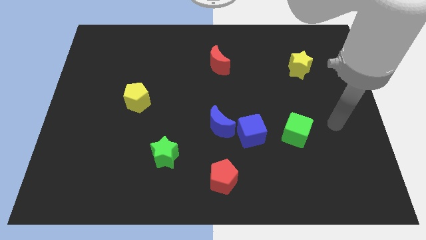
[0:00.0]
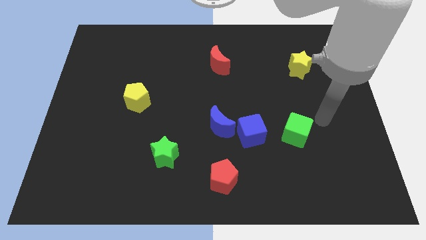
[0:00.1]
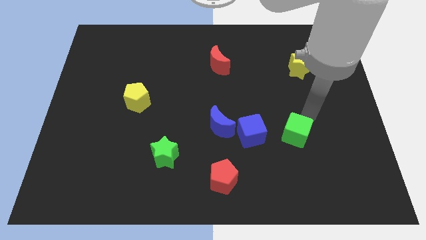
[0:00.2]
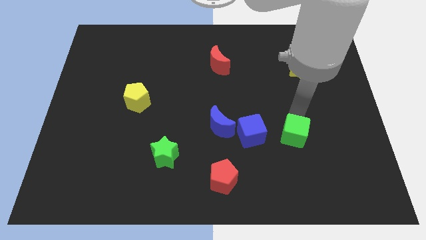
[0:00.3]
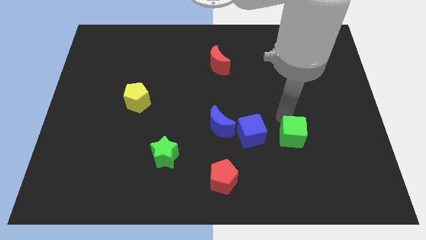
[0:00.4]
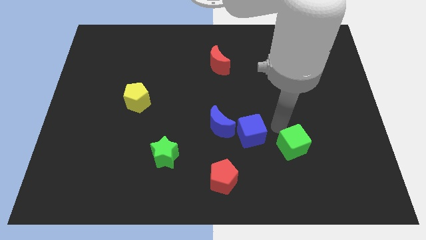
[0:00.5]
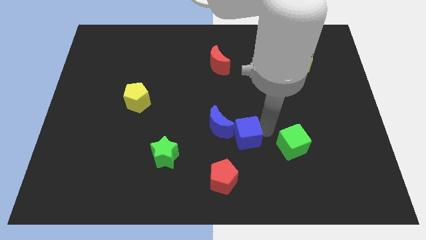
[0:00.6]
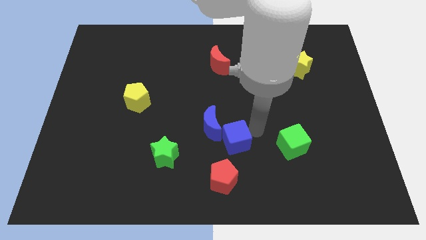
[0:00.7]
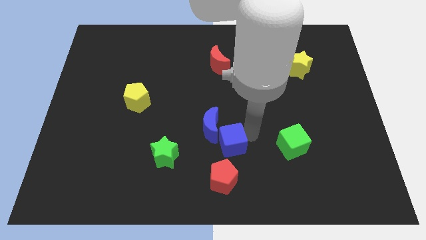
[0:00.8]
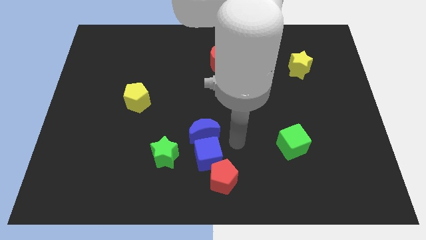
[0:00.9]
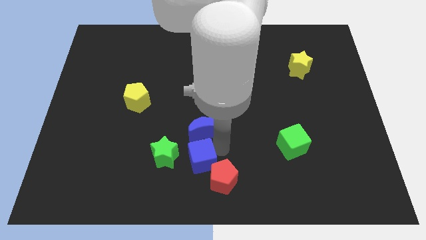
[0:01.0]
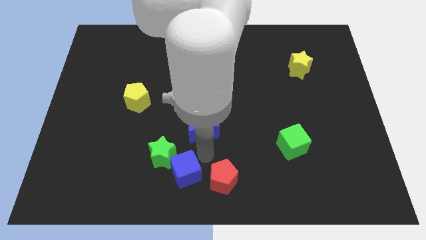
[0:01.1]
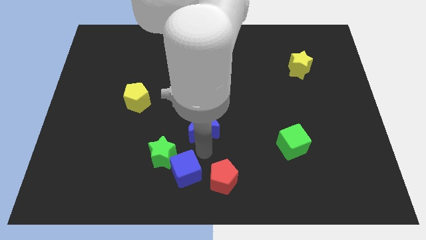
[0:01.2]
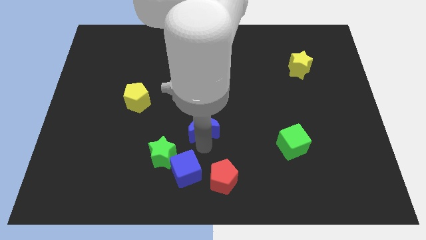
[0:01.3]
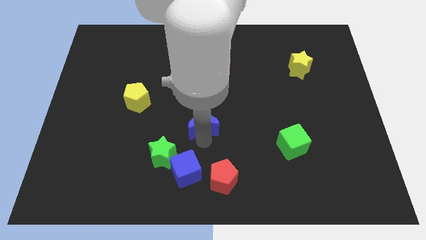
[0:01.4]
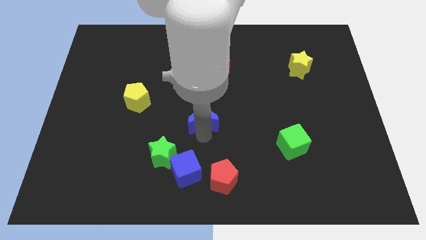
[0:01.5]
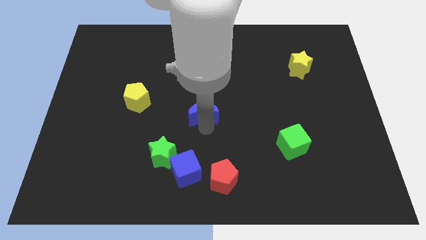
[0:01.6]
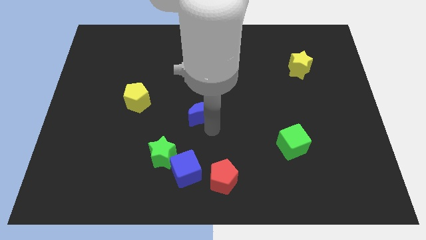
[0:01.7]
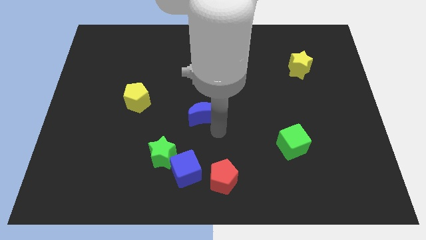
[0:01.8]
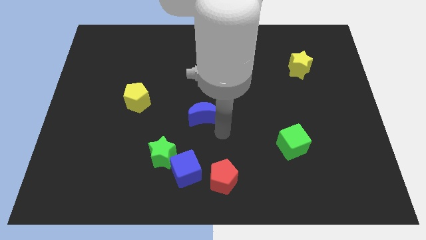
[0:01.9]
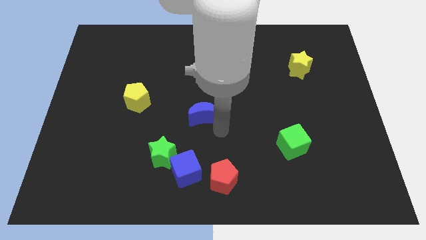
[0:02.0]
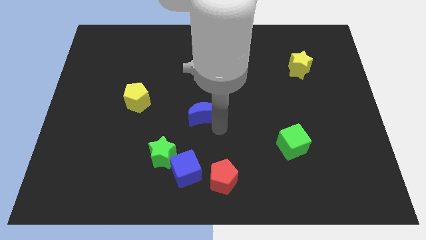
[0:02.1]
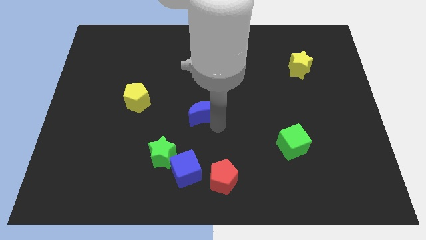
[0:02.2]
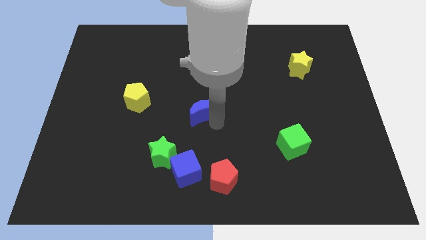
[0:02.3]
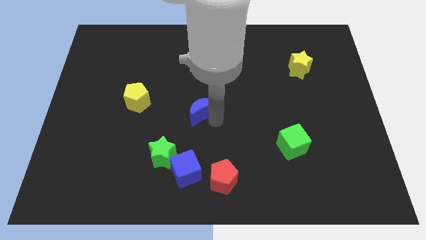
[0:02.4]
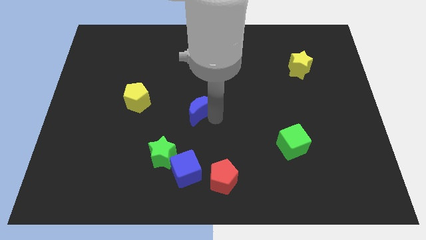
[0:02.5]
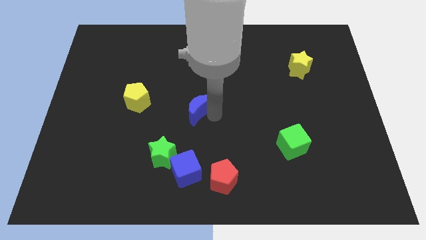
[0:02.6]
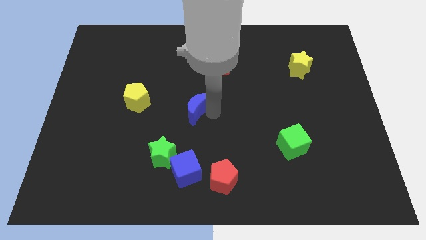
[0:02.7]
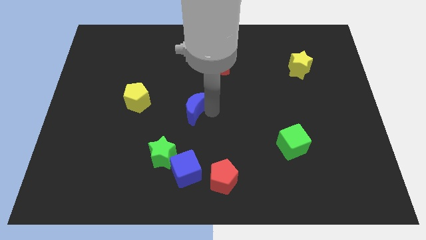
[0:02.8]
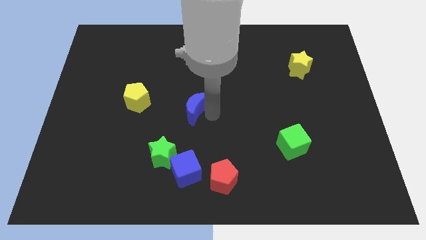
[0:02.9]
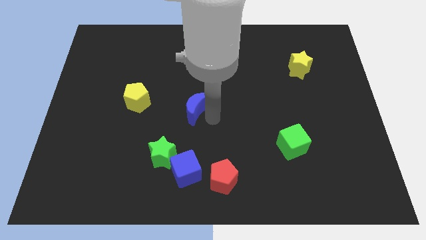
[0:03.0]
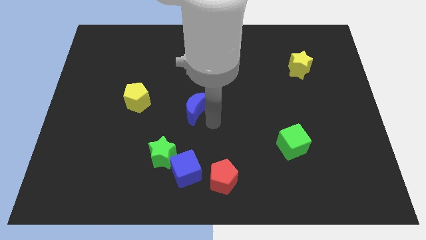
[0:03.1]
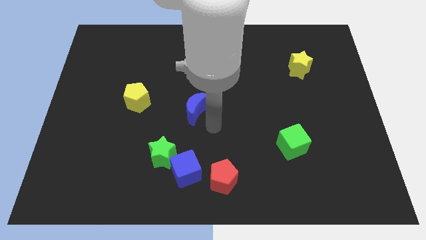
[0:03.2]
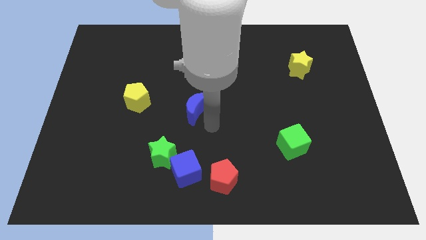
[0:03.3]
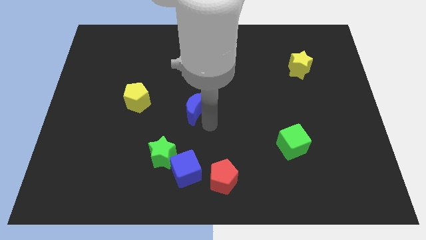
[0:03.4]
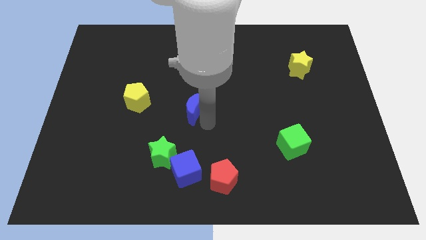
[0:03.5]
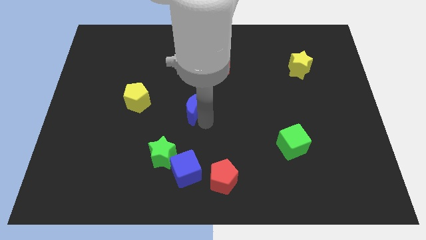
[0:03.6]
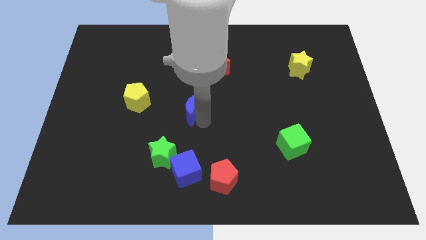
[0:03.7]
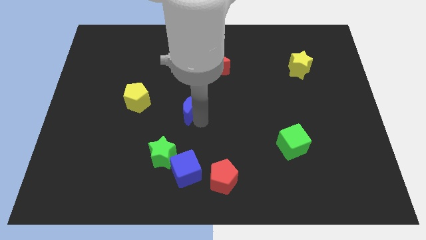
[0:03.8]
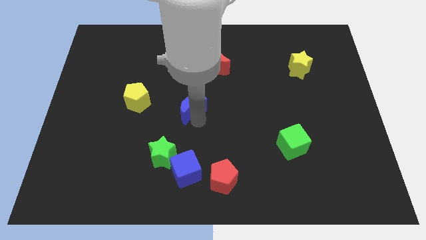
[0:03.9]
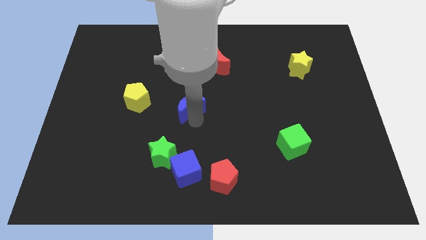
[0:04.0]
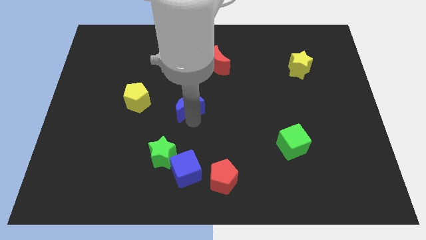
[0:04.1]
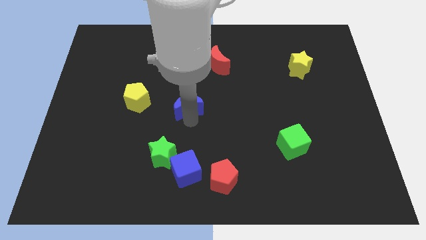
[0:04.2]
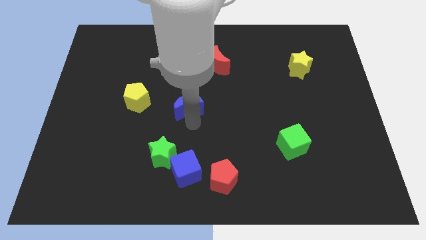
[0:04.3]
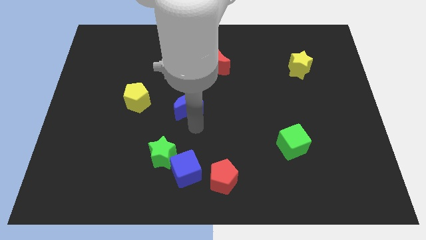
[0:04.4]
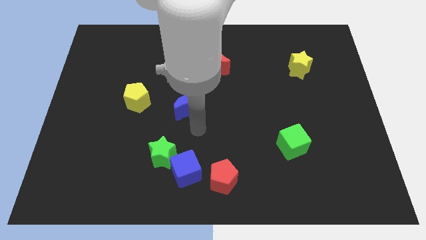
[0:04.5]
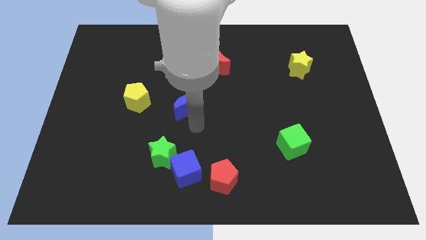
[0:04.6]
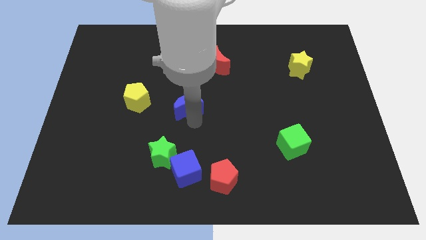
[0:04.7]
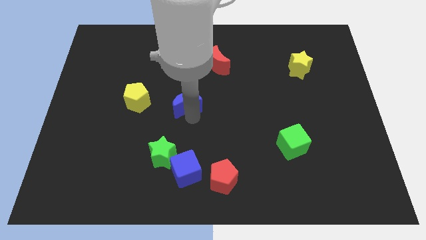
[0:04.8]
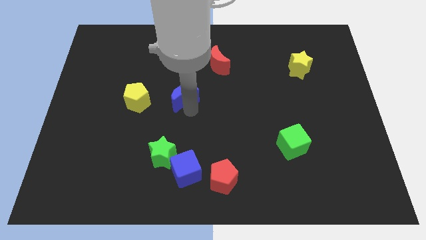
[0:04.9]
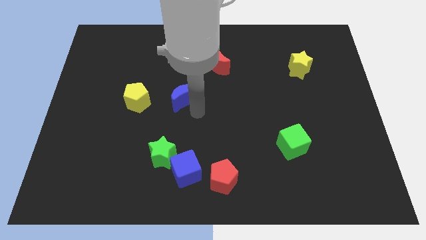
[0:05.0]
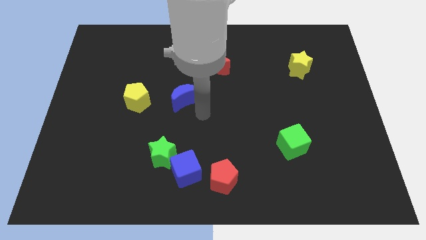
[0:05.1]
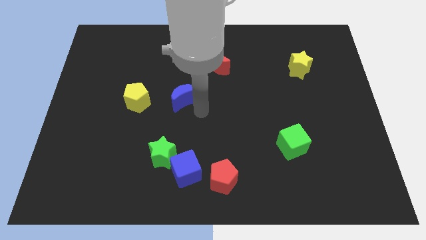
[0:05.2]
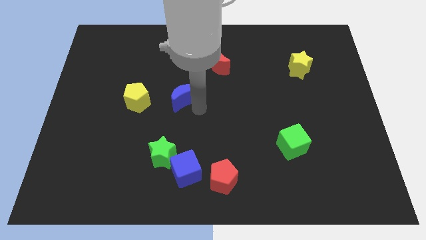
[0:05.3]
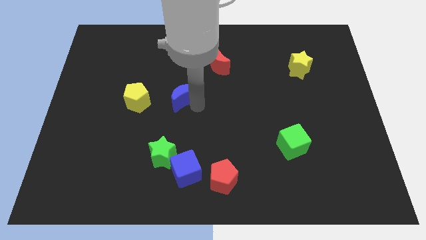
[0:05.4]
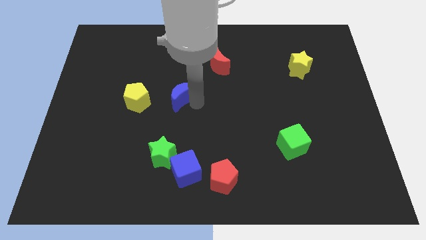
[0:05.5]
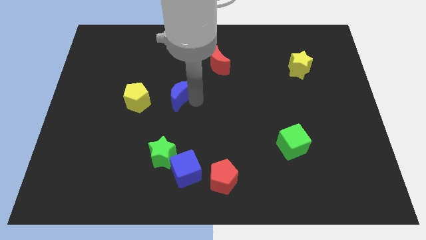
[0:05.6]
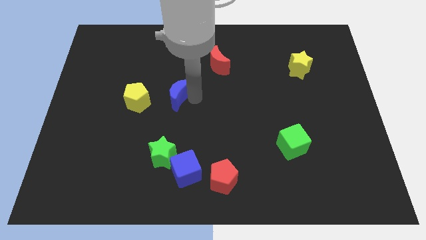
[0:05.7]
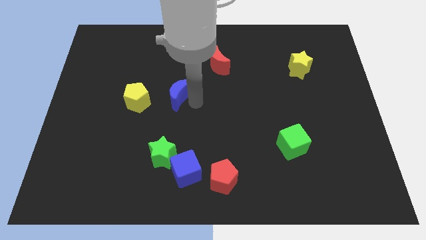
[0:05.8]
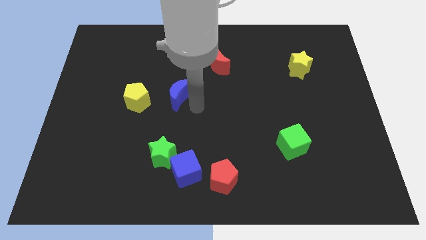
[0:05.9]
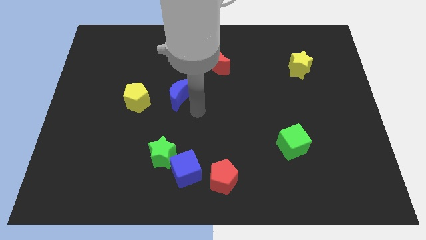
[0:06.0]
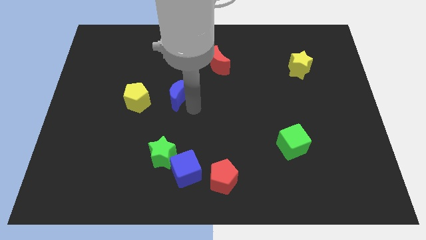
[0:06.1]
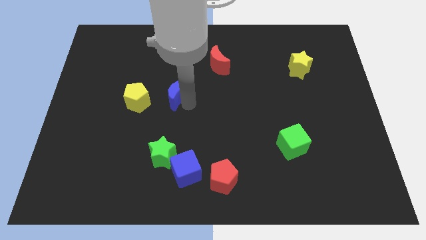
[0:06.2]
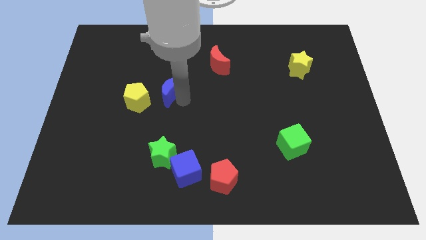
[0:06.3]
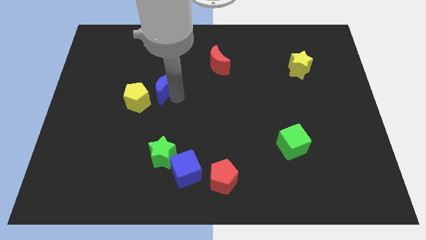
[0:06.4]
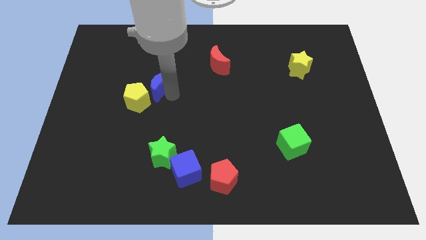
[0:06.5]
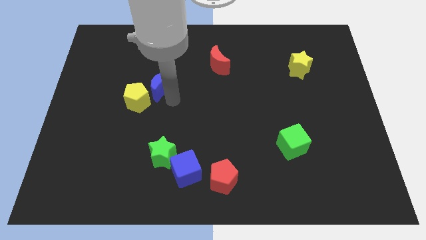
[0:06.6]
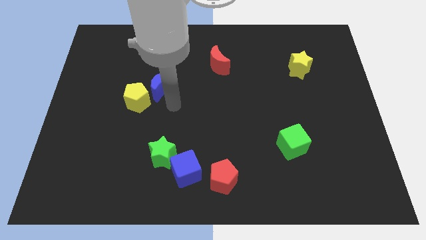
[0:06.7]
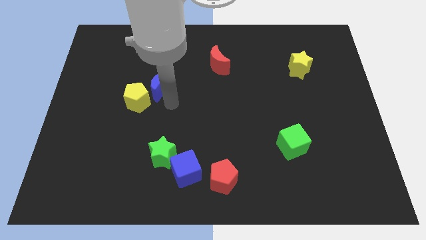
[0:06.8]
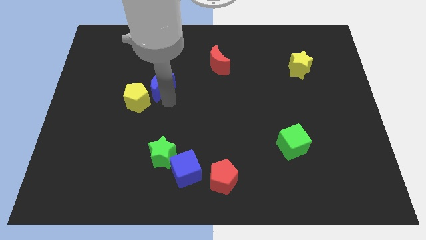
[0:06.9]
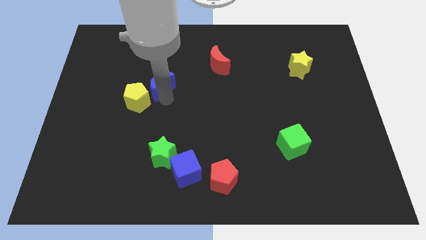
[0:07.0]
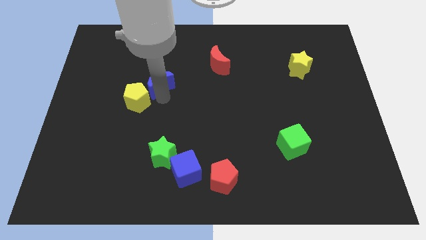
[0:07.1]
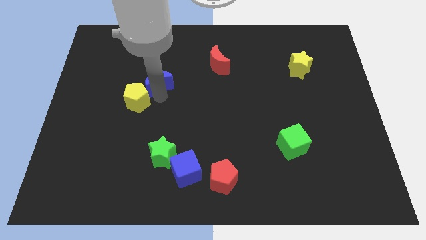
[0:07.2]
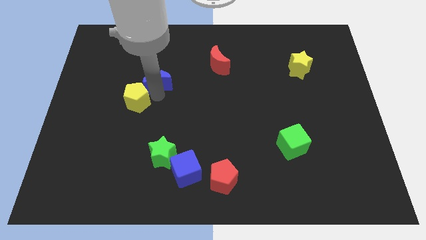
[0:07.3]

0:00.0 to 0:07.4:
push the blue moon upwards and left diagonally
